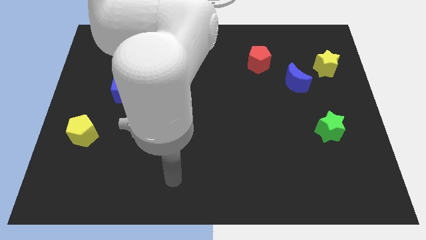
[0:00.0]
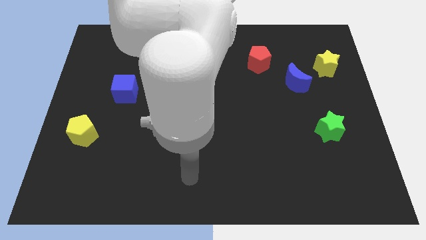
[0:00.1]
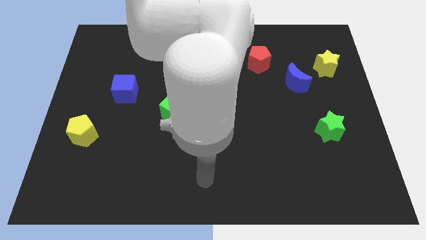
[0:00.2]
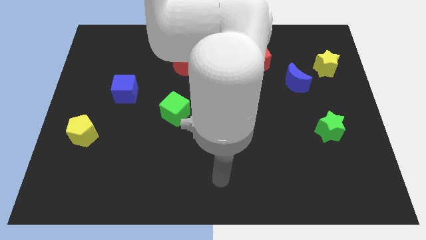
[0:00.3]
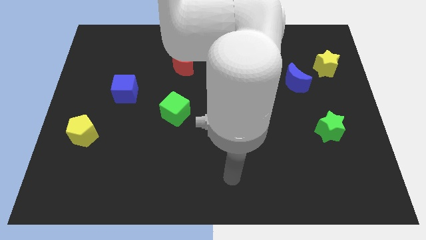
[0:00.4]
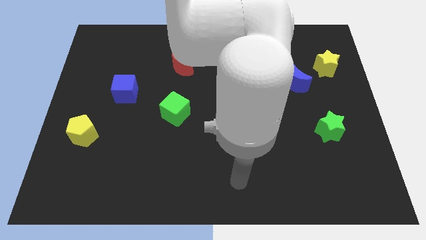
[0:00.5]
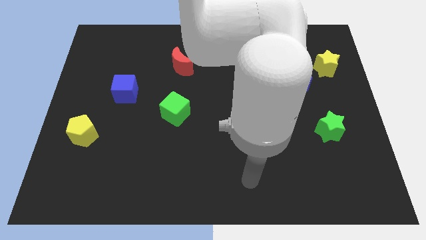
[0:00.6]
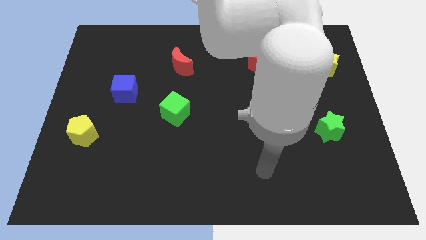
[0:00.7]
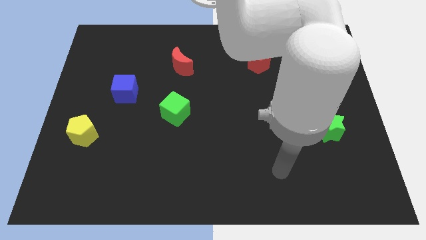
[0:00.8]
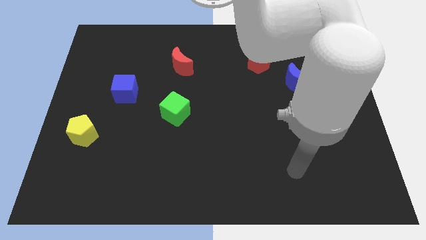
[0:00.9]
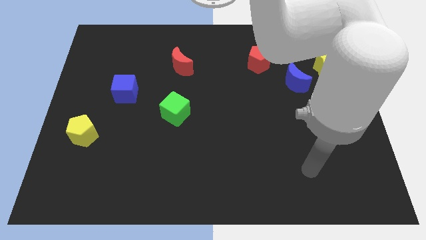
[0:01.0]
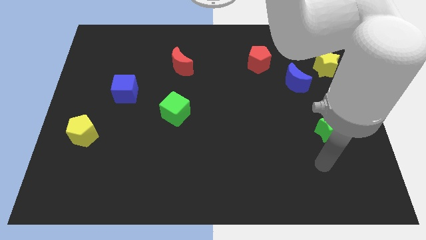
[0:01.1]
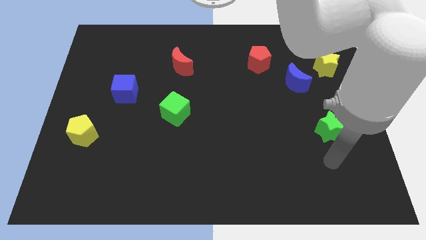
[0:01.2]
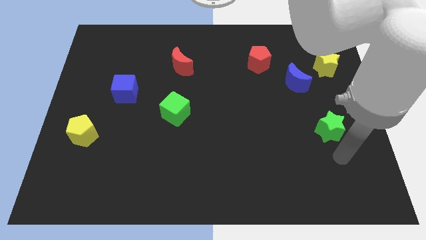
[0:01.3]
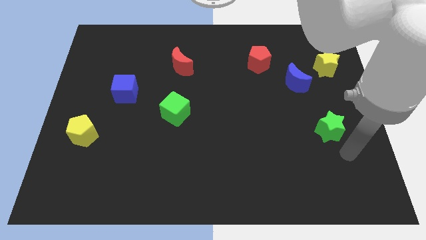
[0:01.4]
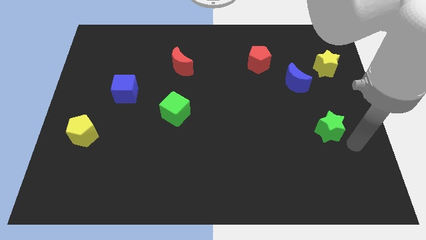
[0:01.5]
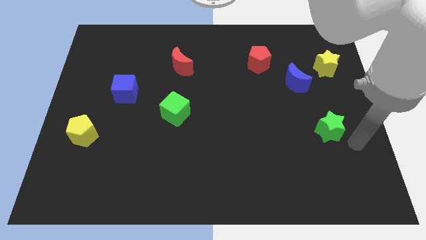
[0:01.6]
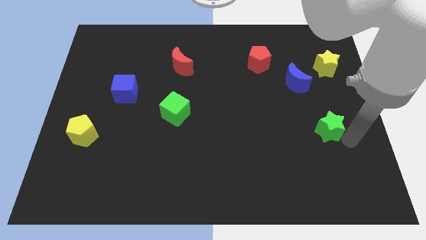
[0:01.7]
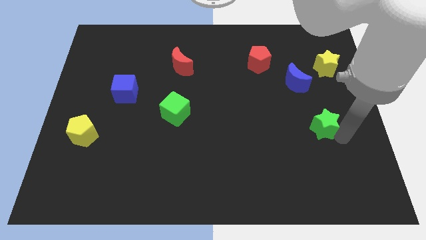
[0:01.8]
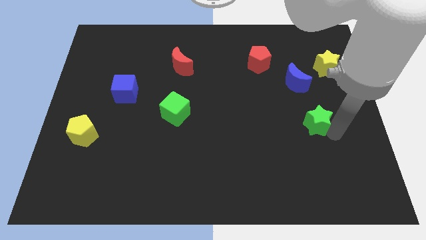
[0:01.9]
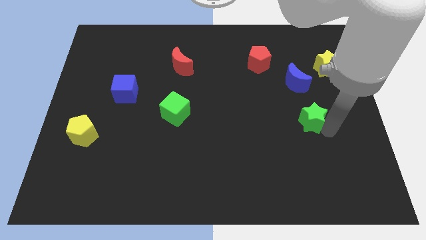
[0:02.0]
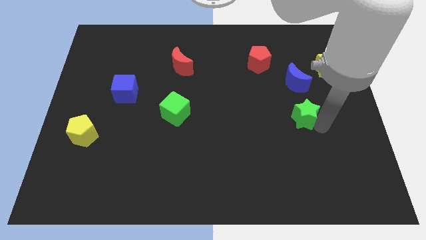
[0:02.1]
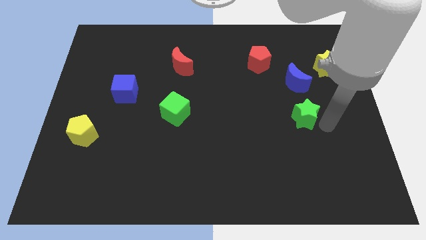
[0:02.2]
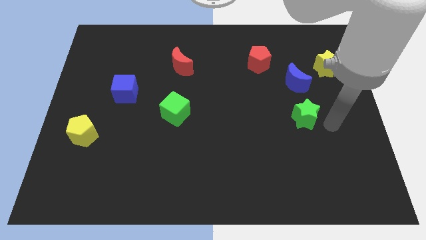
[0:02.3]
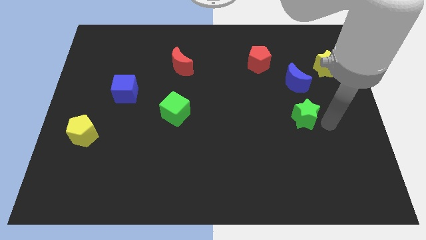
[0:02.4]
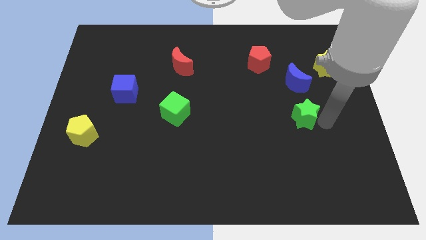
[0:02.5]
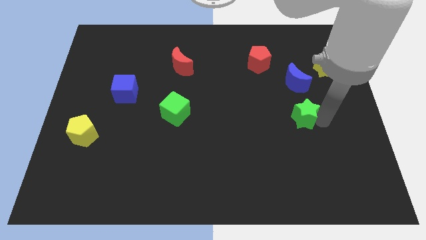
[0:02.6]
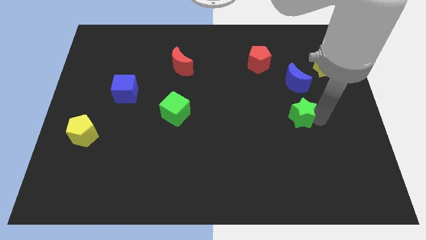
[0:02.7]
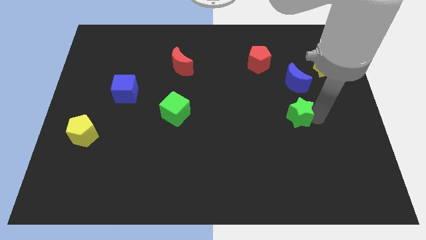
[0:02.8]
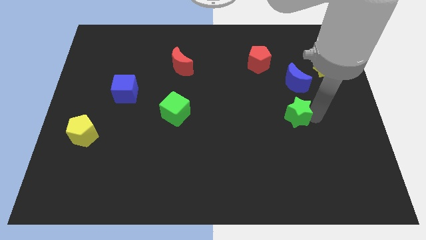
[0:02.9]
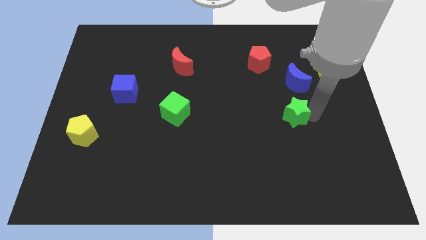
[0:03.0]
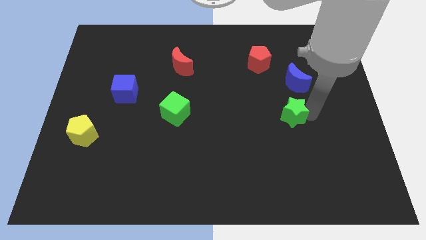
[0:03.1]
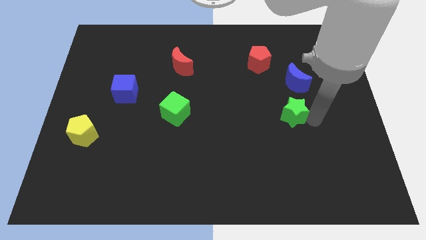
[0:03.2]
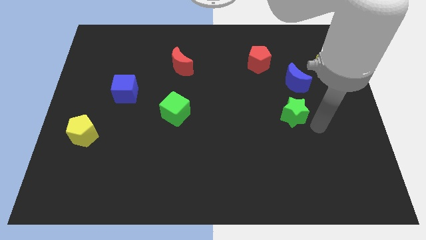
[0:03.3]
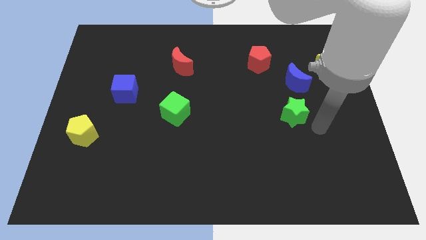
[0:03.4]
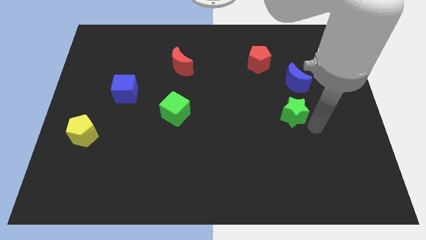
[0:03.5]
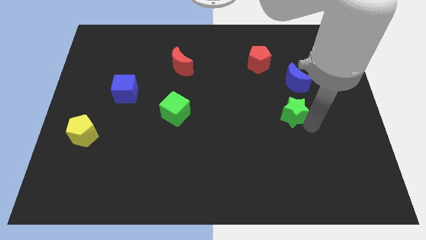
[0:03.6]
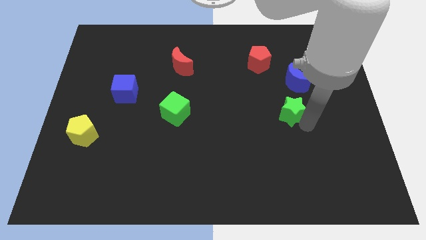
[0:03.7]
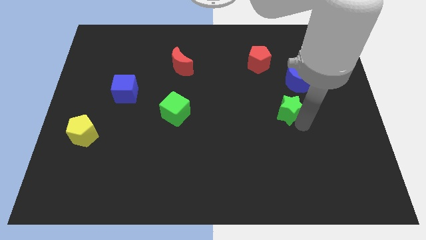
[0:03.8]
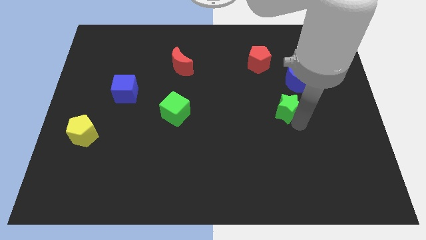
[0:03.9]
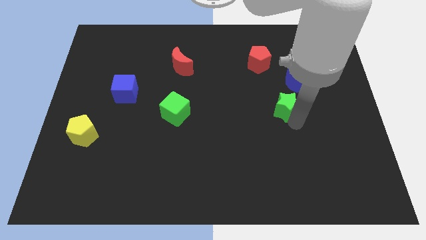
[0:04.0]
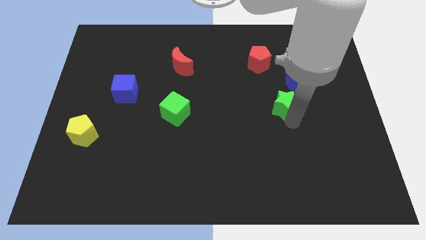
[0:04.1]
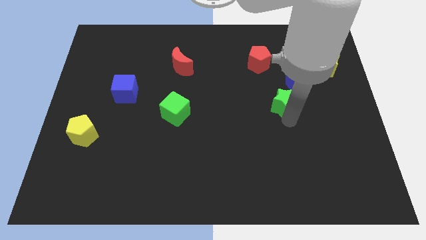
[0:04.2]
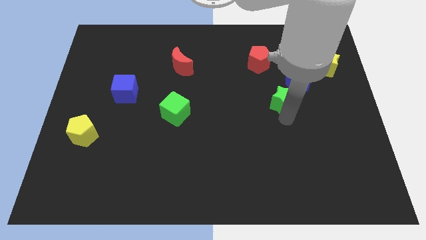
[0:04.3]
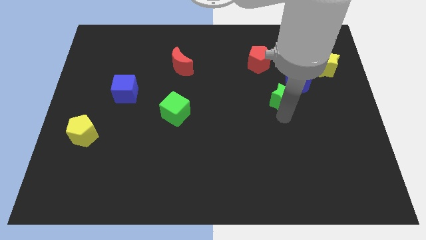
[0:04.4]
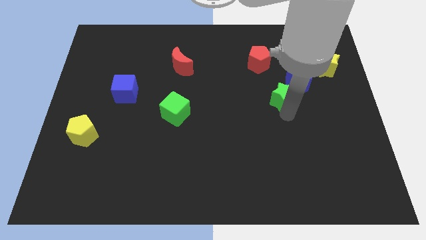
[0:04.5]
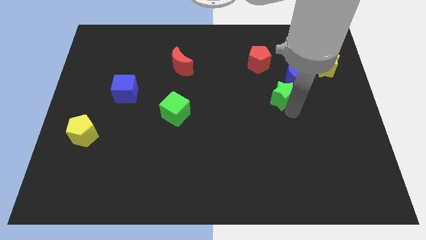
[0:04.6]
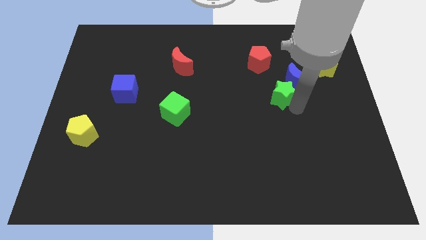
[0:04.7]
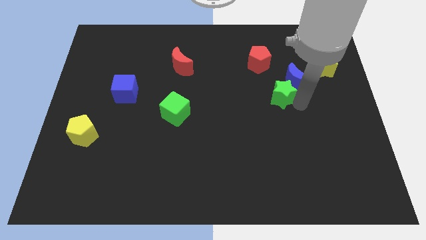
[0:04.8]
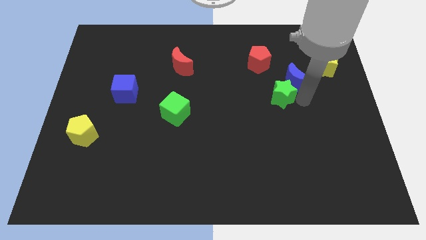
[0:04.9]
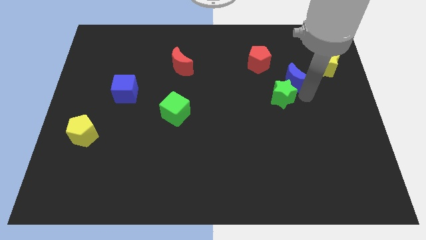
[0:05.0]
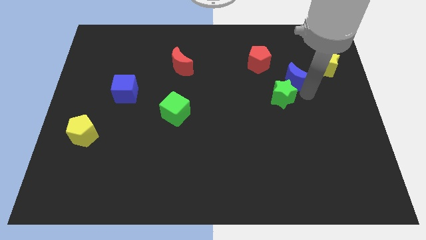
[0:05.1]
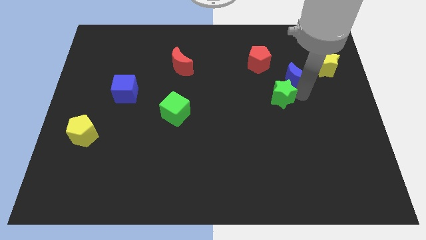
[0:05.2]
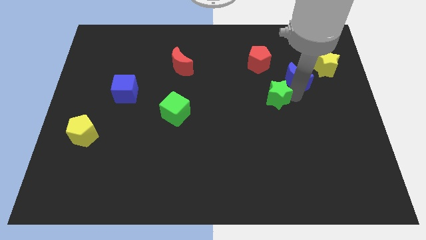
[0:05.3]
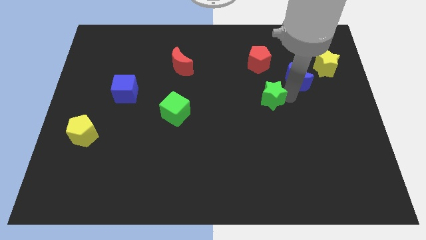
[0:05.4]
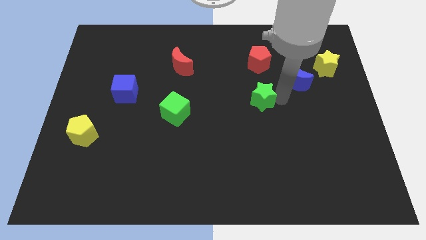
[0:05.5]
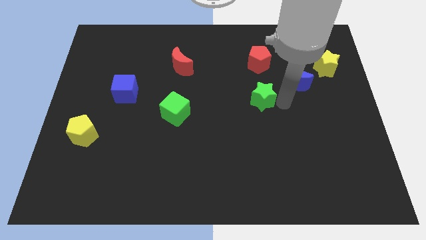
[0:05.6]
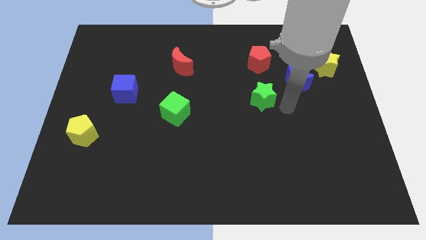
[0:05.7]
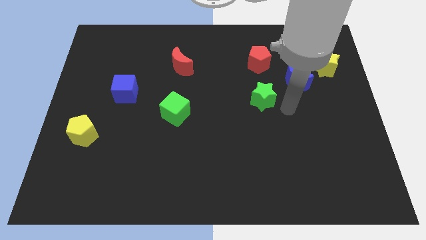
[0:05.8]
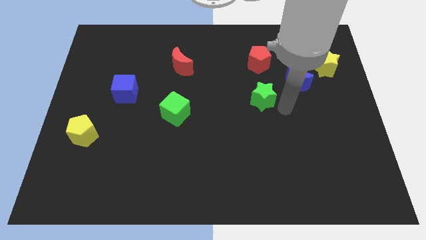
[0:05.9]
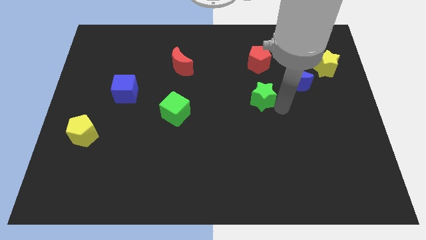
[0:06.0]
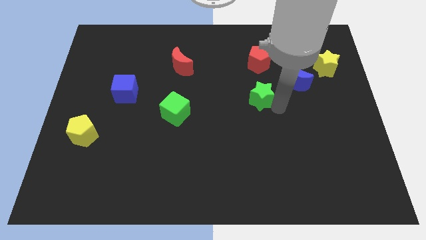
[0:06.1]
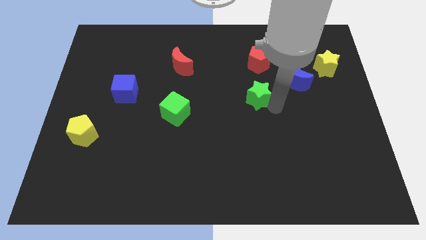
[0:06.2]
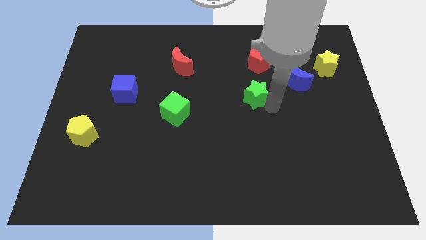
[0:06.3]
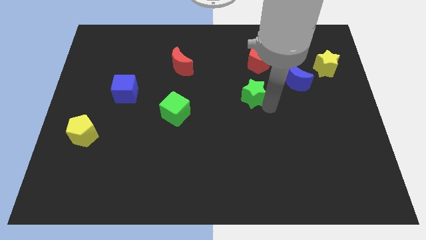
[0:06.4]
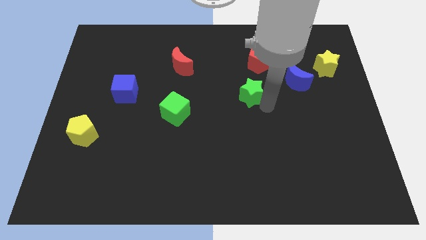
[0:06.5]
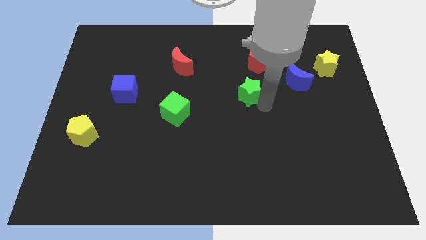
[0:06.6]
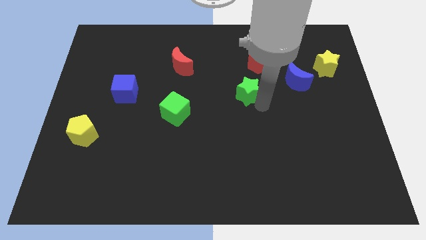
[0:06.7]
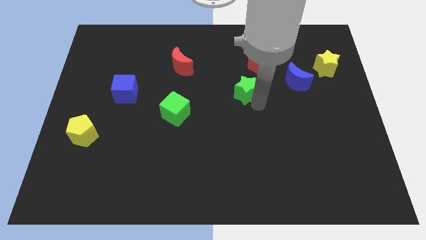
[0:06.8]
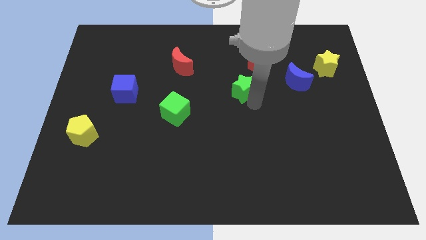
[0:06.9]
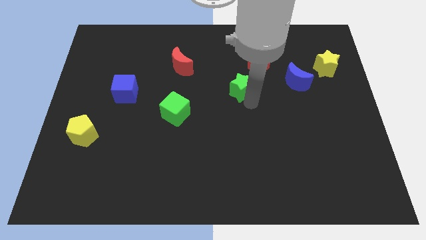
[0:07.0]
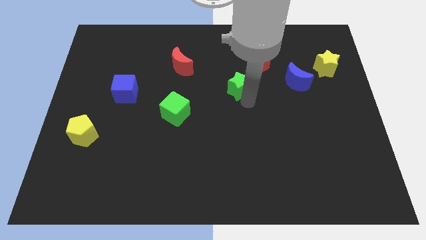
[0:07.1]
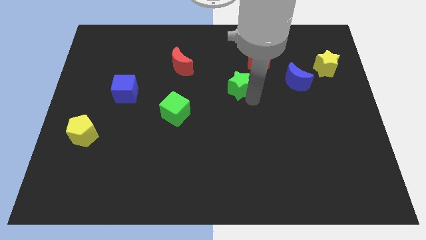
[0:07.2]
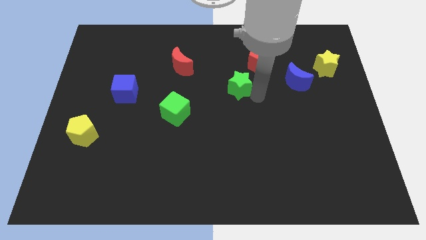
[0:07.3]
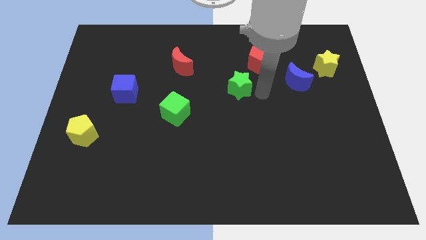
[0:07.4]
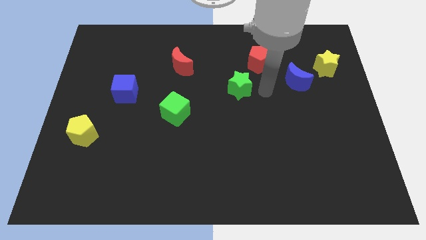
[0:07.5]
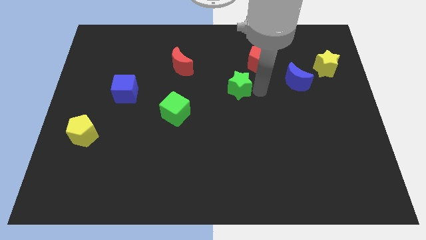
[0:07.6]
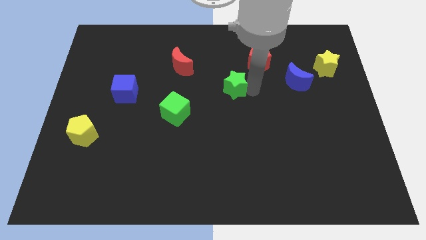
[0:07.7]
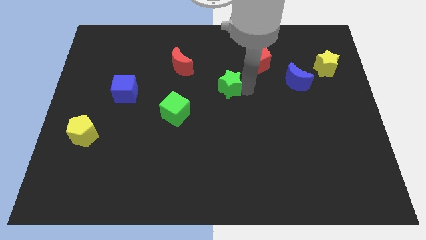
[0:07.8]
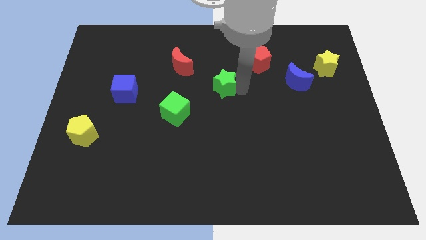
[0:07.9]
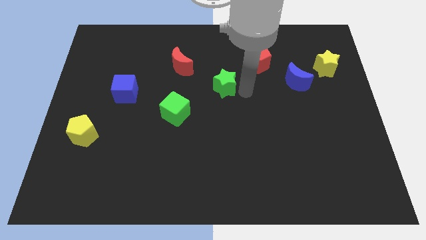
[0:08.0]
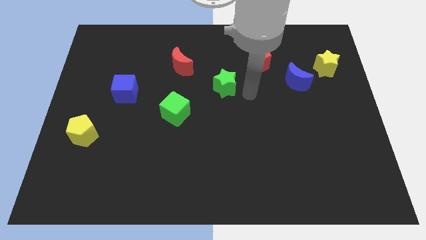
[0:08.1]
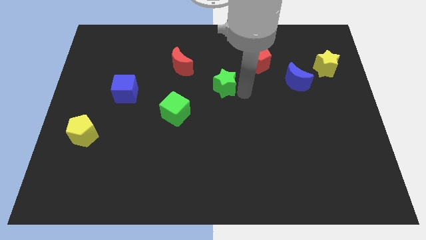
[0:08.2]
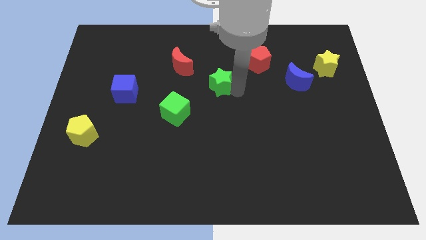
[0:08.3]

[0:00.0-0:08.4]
put the green star to the bottom right of the red moon
